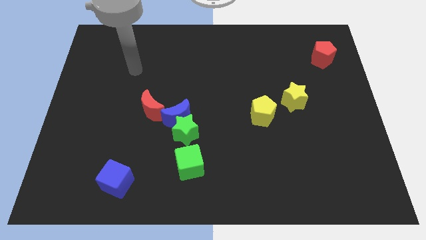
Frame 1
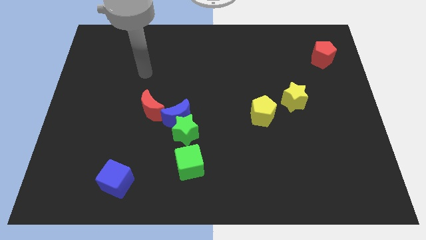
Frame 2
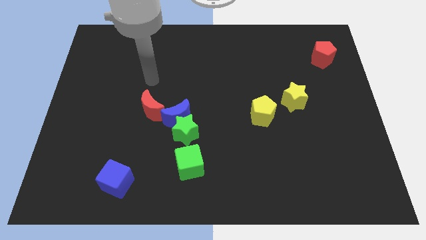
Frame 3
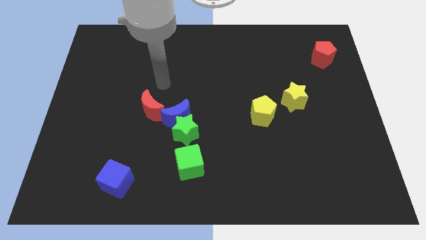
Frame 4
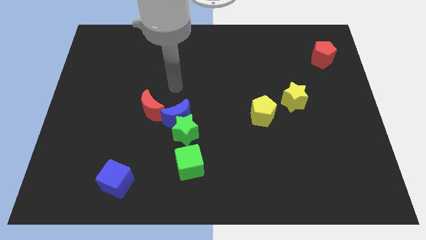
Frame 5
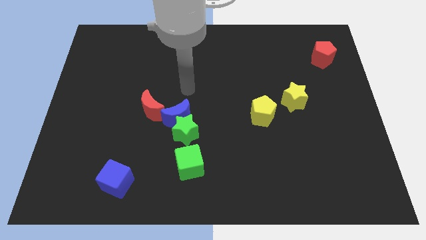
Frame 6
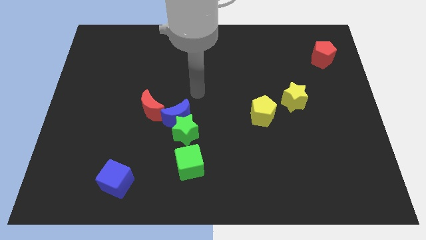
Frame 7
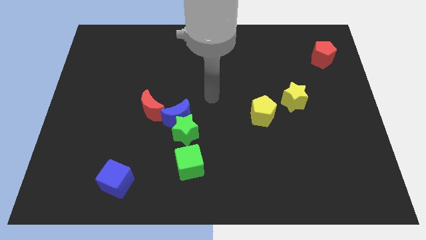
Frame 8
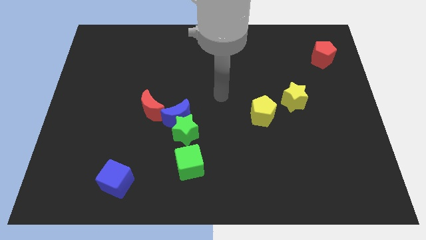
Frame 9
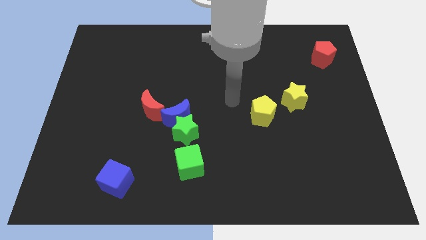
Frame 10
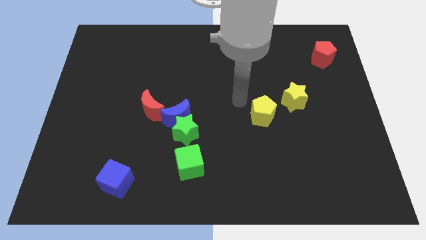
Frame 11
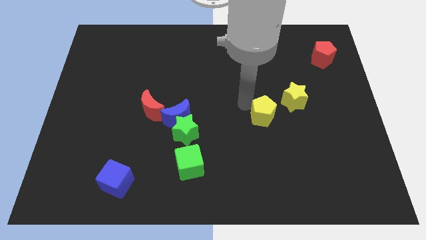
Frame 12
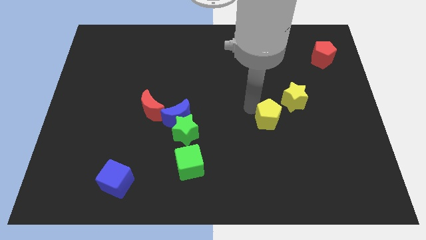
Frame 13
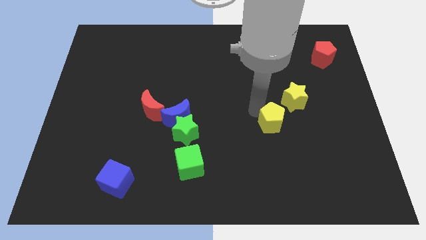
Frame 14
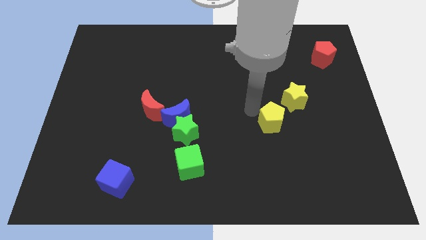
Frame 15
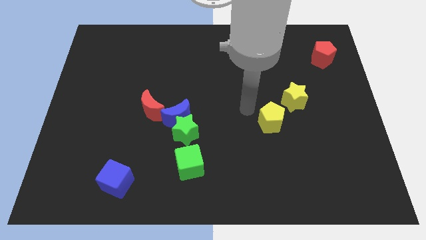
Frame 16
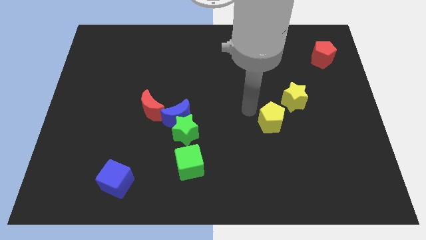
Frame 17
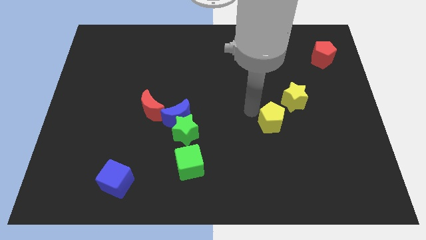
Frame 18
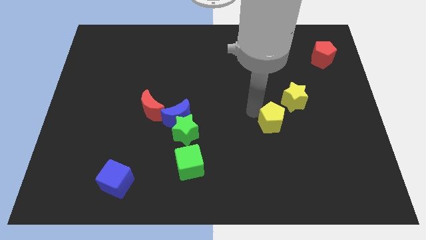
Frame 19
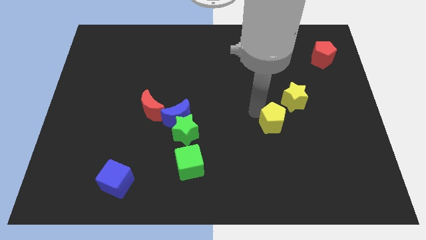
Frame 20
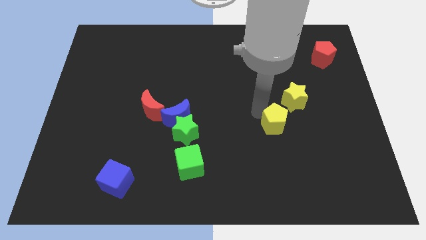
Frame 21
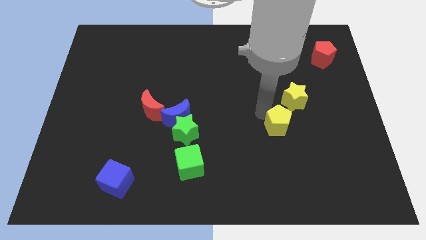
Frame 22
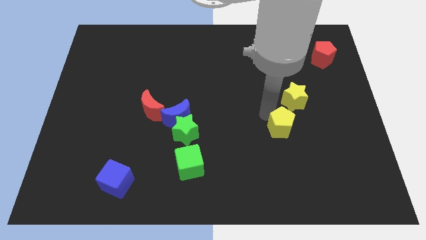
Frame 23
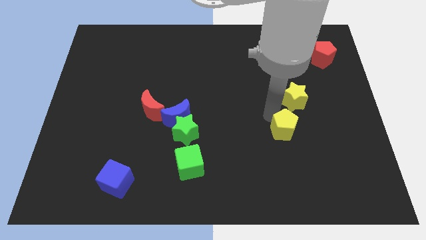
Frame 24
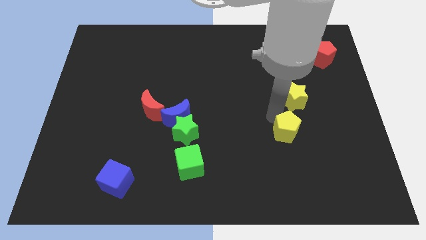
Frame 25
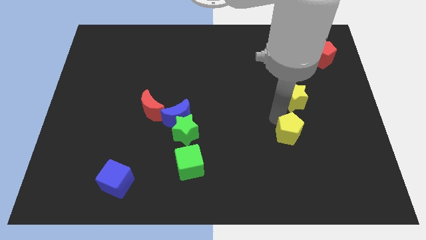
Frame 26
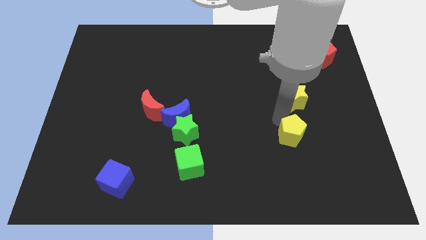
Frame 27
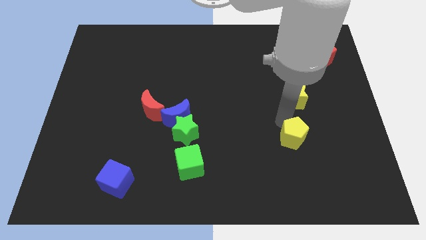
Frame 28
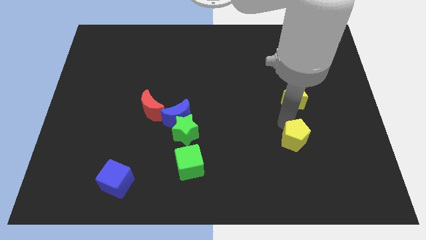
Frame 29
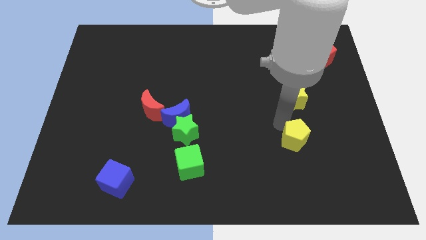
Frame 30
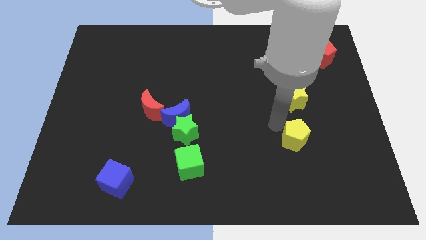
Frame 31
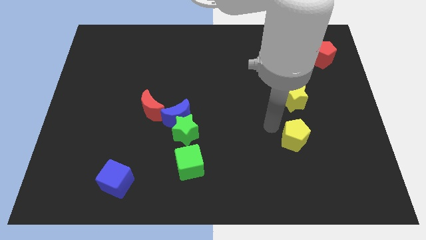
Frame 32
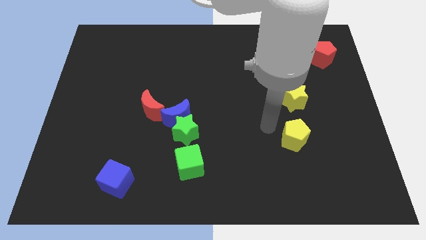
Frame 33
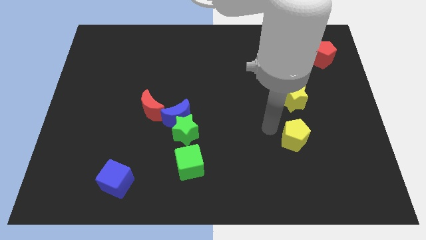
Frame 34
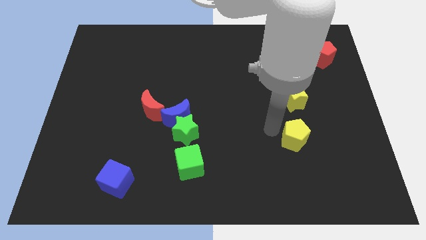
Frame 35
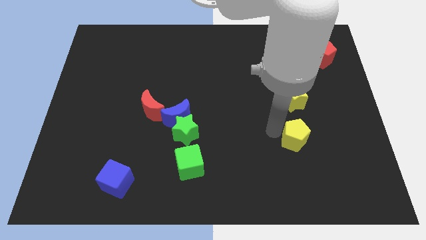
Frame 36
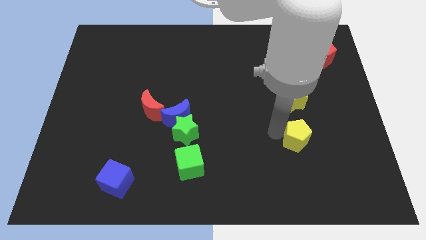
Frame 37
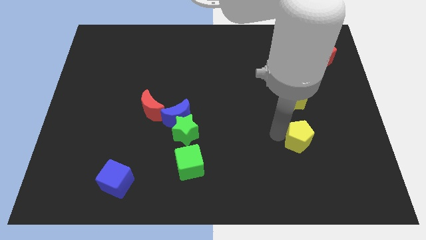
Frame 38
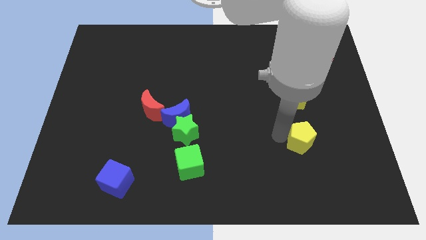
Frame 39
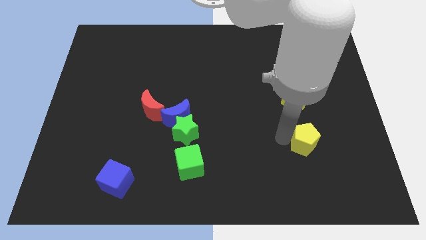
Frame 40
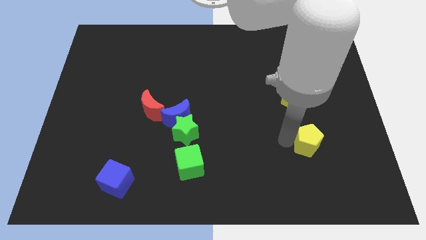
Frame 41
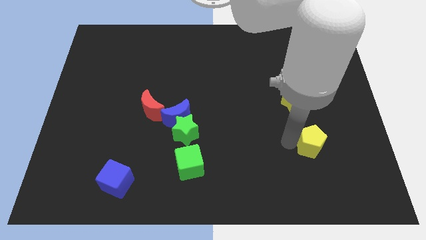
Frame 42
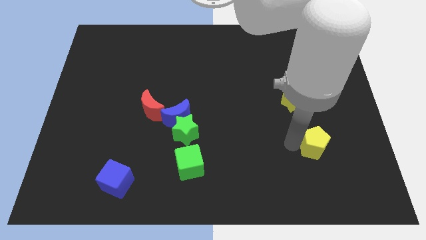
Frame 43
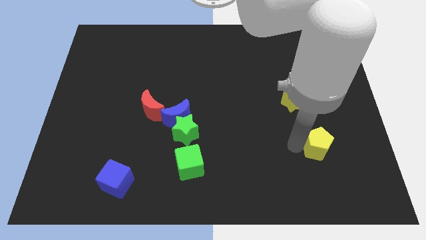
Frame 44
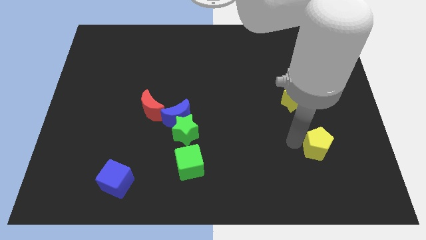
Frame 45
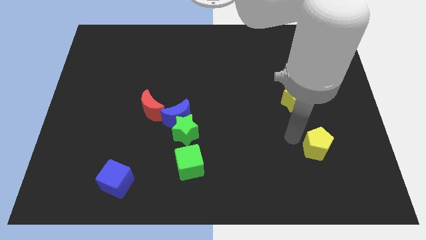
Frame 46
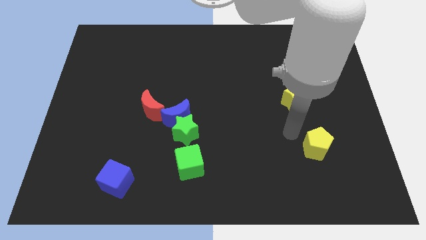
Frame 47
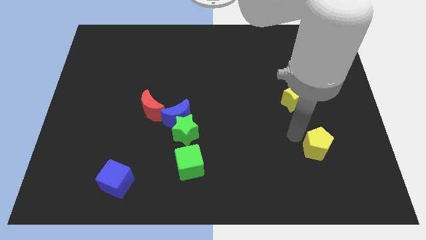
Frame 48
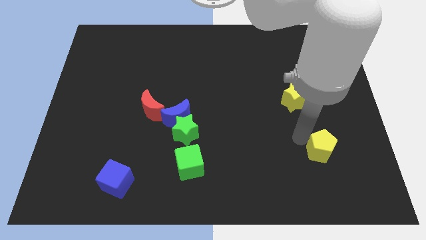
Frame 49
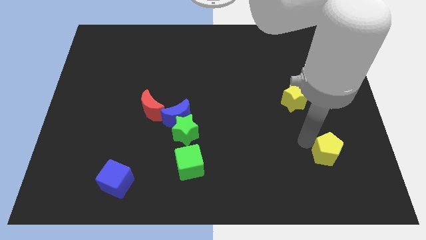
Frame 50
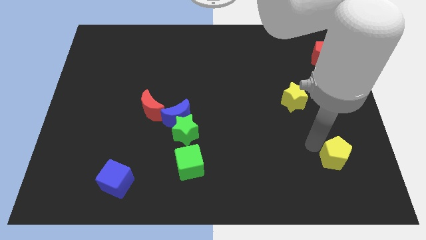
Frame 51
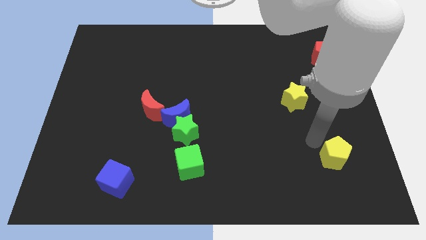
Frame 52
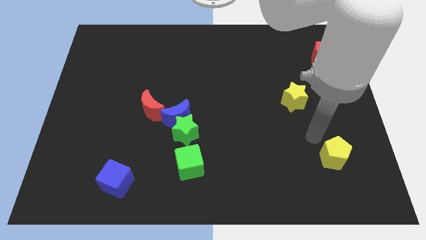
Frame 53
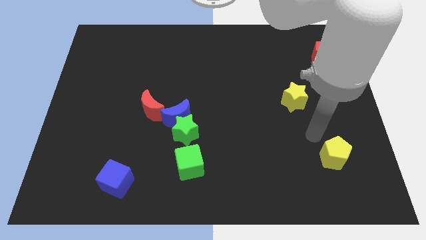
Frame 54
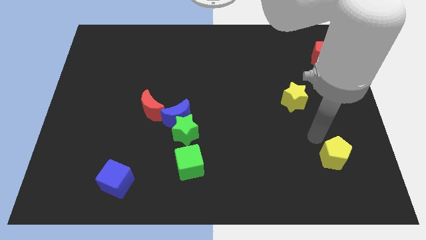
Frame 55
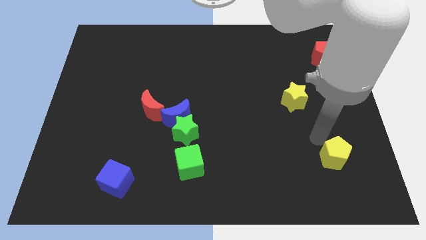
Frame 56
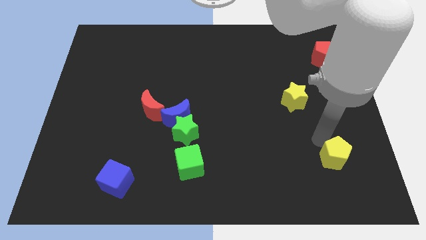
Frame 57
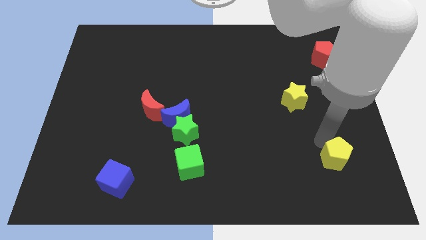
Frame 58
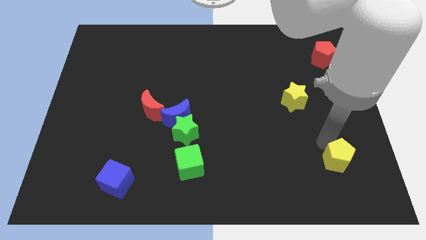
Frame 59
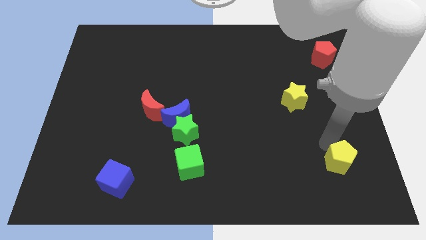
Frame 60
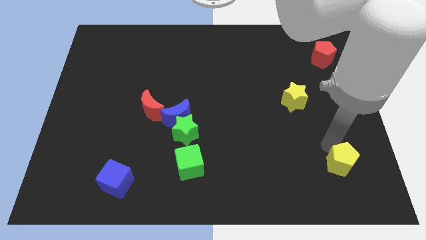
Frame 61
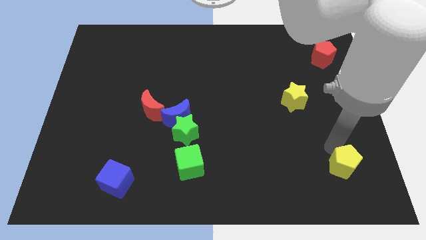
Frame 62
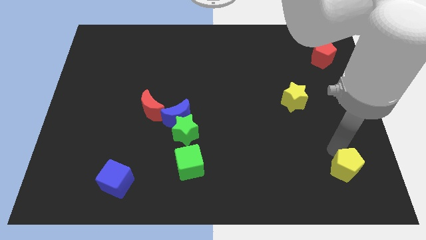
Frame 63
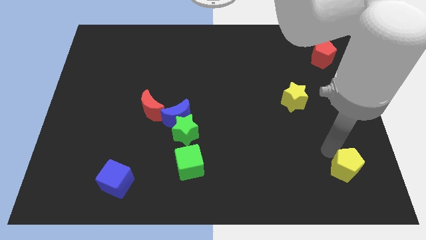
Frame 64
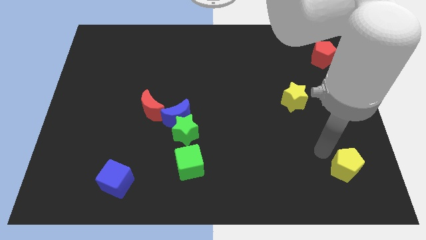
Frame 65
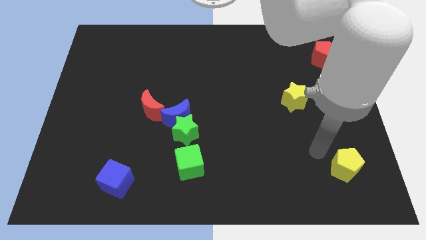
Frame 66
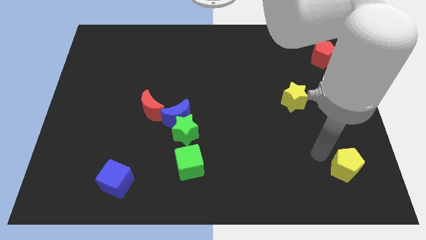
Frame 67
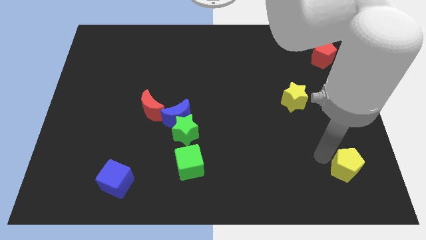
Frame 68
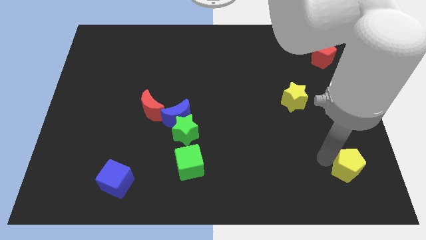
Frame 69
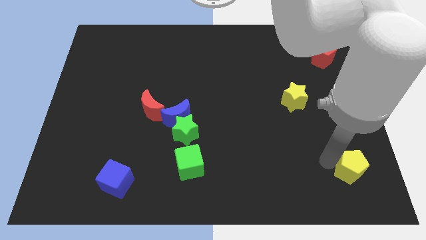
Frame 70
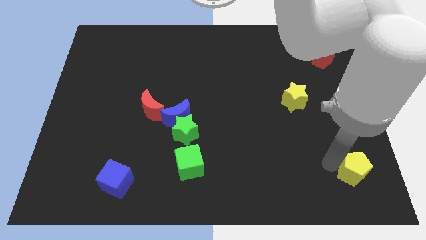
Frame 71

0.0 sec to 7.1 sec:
move the yellow pentagon to the bottom right
